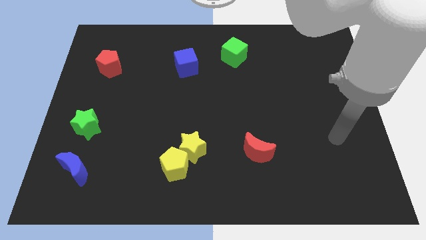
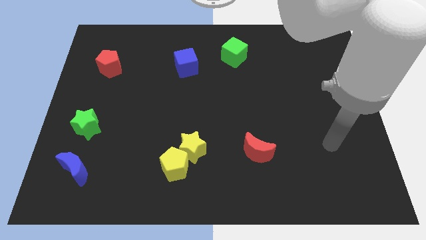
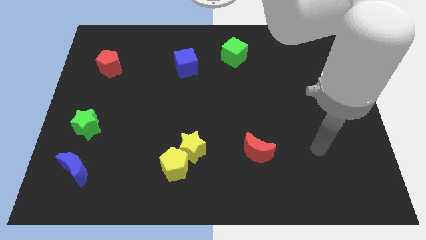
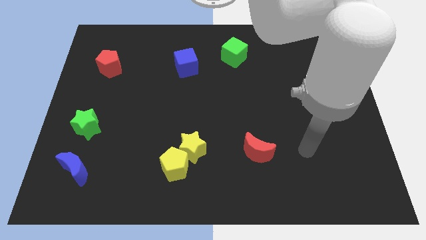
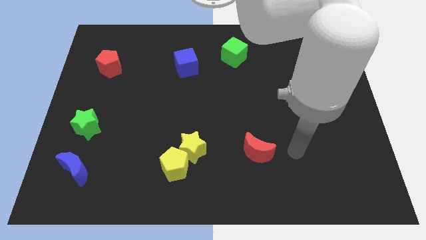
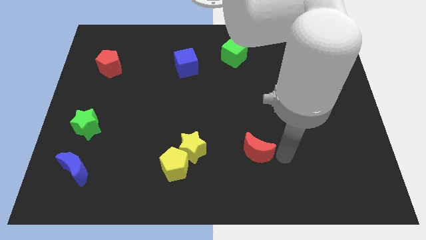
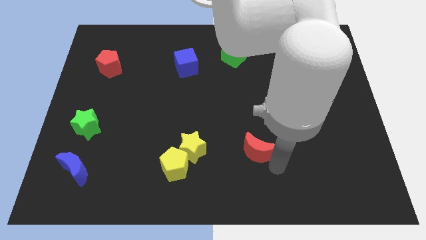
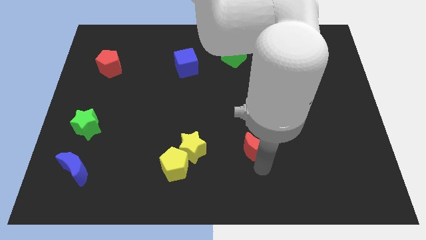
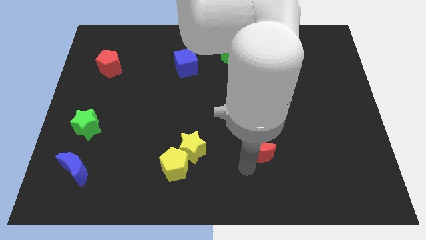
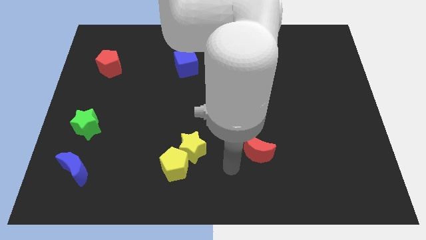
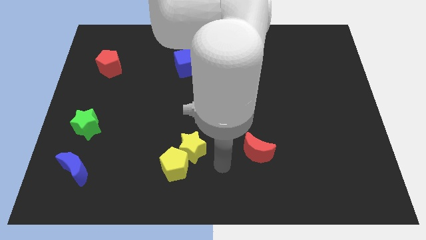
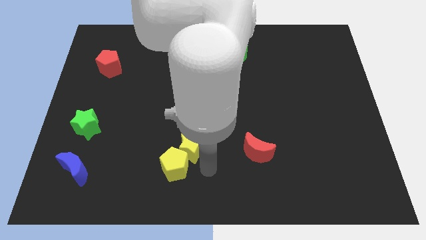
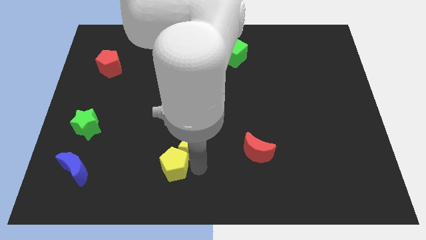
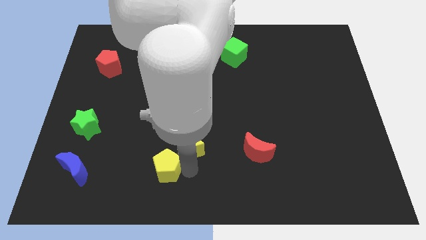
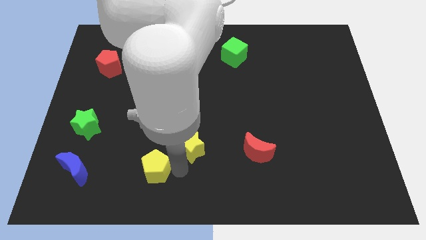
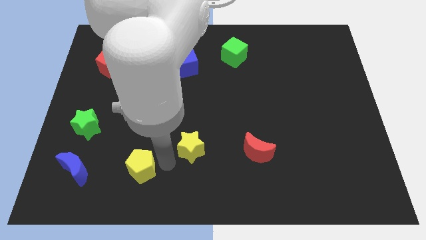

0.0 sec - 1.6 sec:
pull the yellow star apart from the yellow pentagon

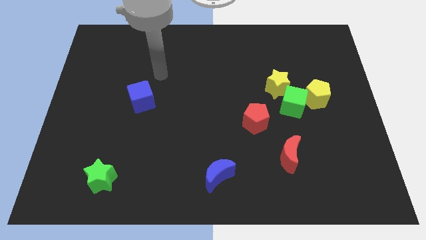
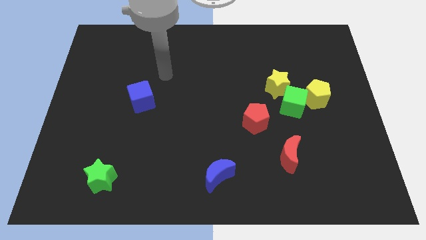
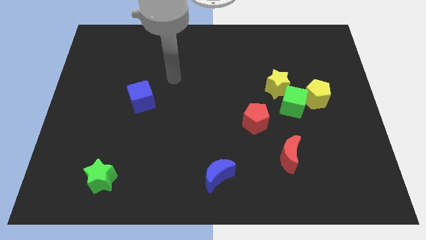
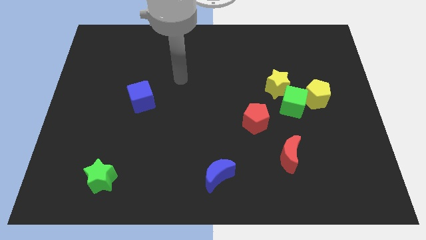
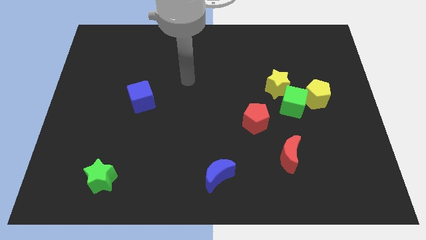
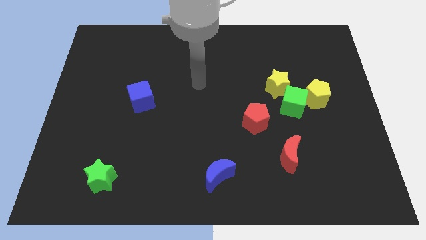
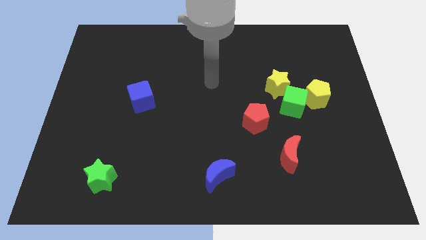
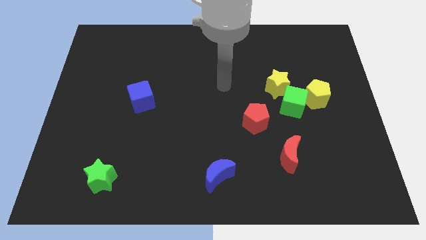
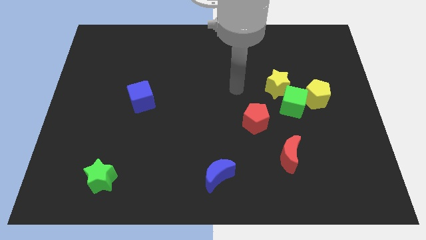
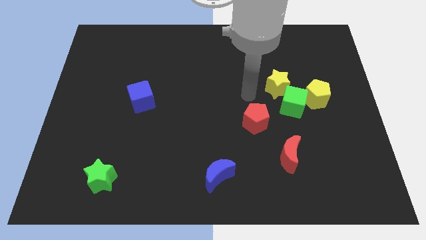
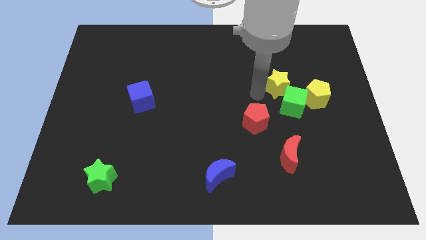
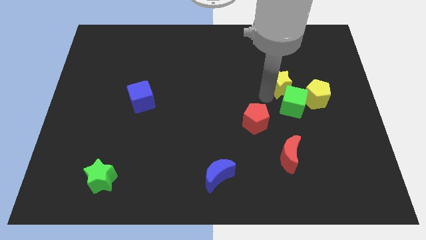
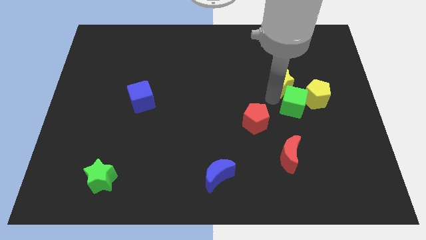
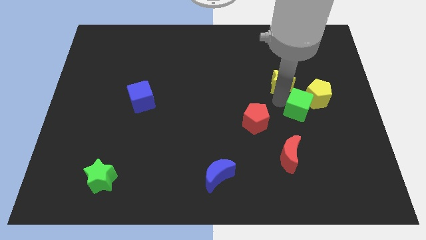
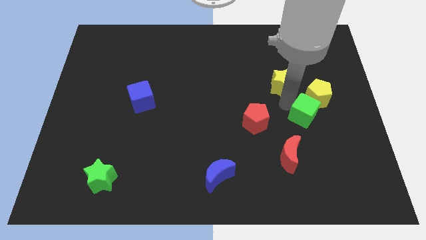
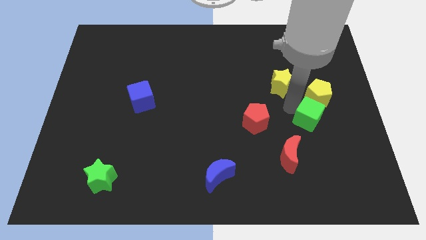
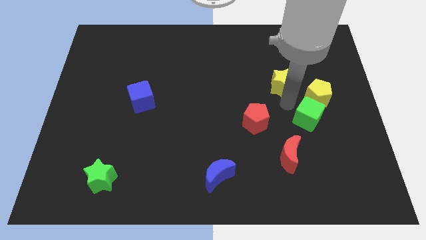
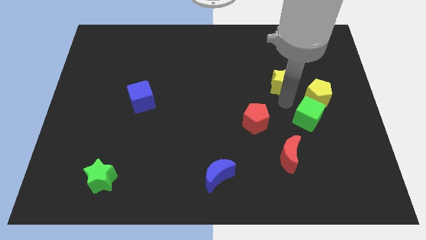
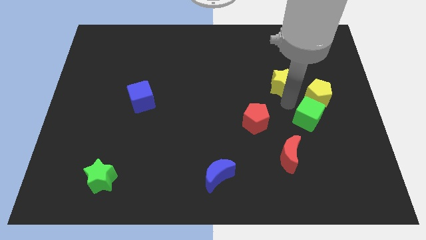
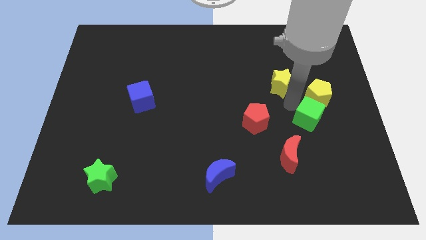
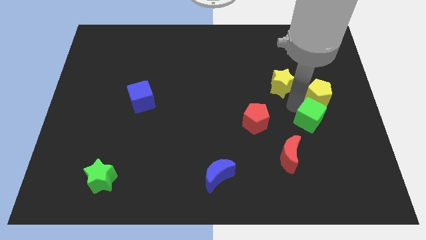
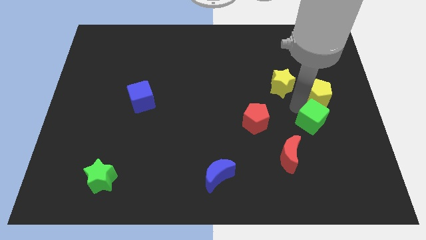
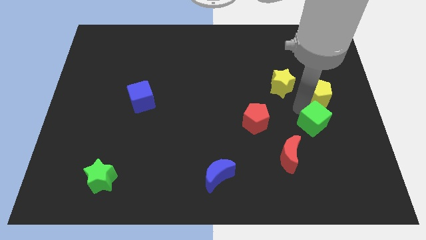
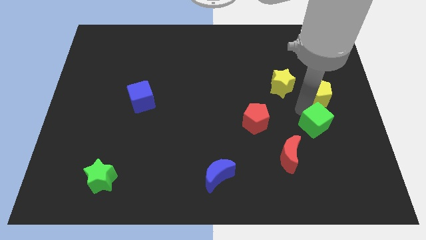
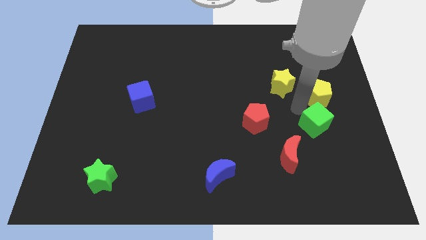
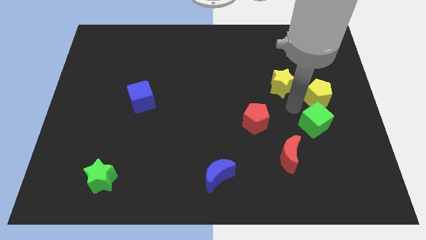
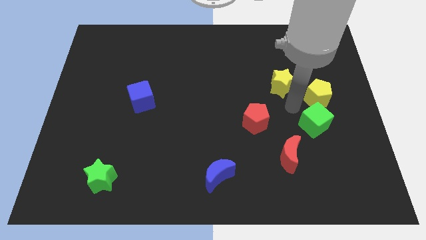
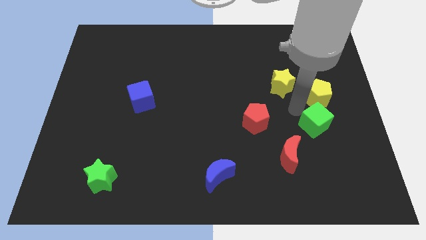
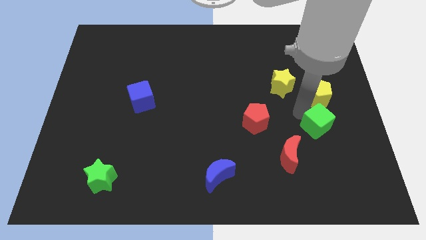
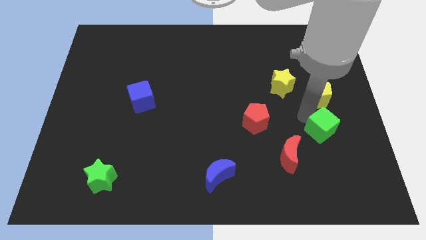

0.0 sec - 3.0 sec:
separate the green cube from the yellow pentagon, yellow star, and red pentagon

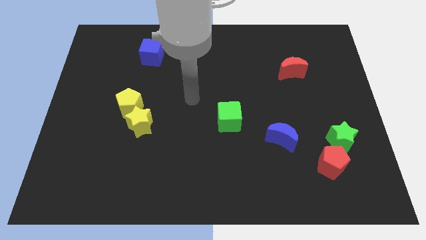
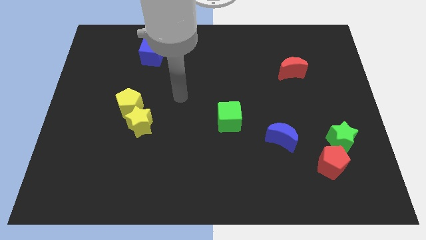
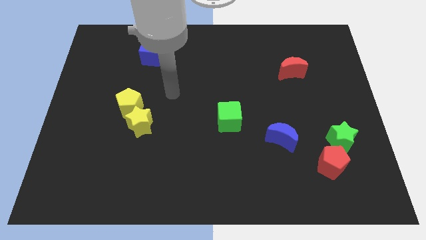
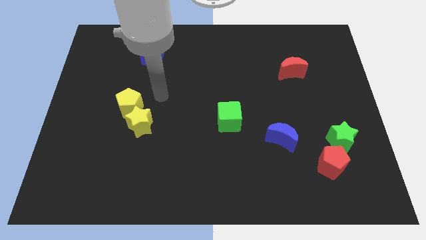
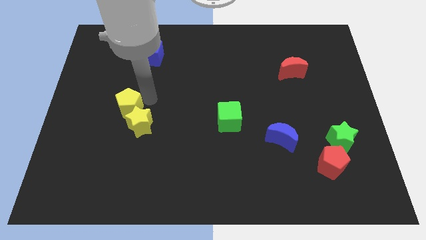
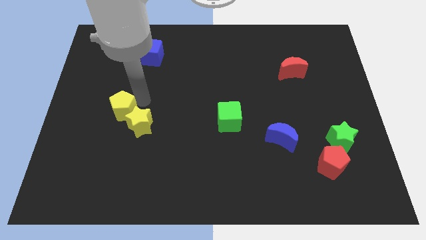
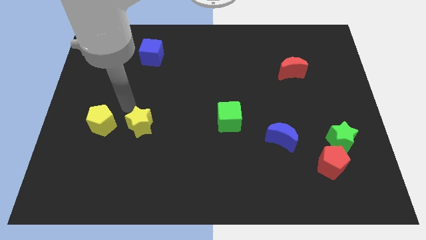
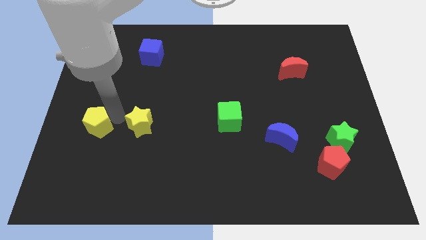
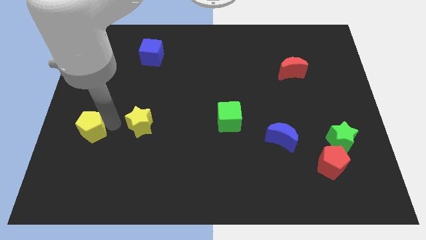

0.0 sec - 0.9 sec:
separate the yellow star from the yellow pentagon

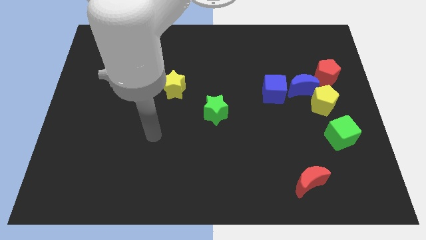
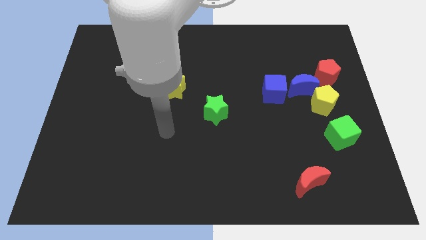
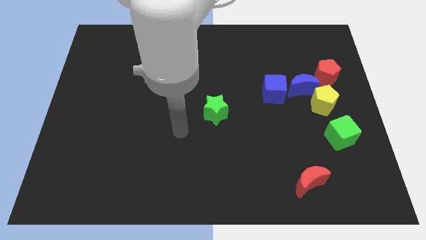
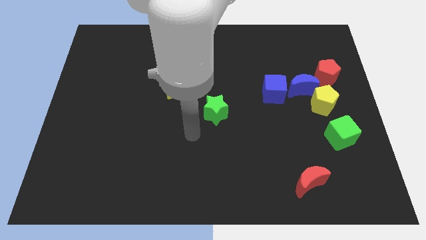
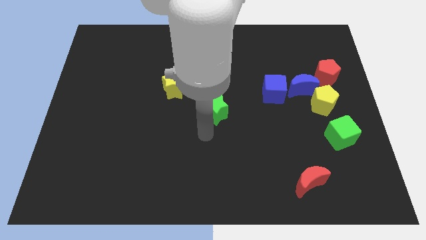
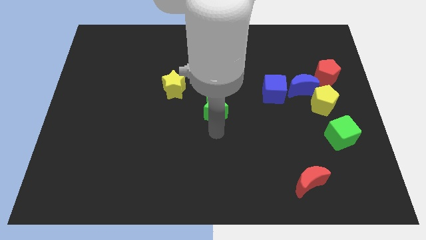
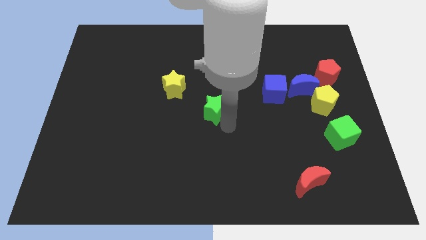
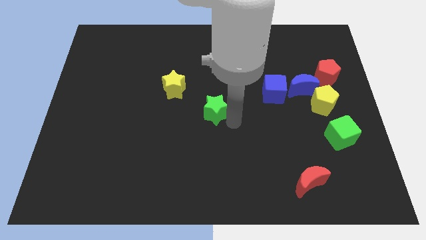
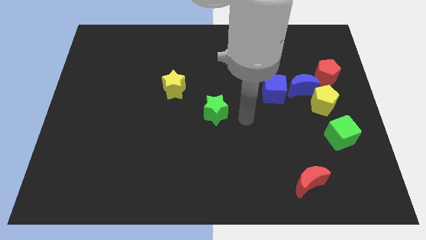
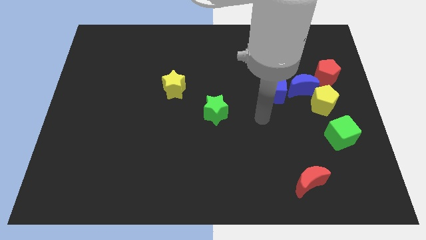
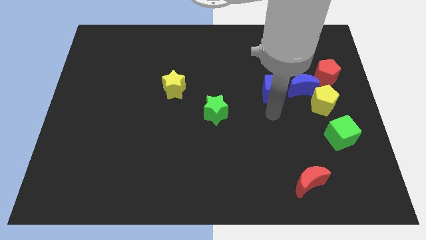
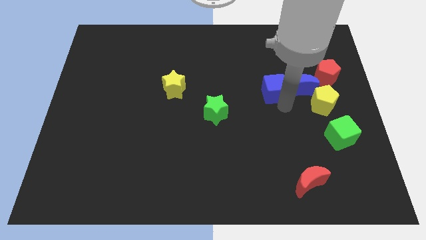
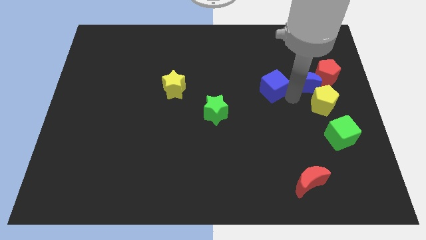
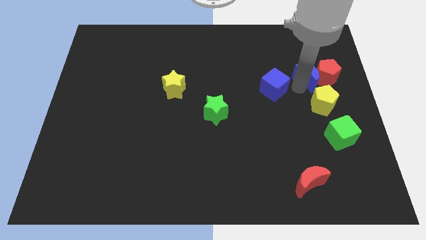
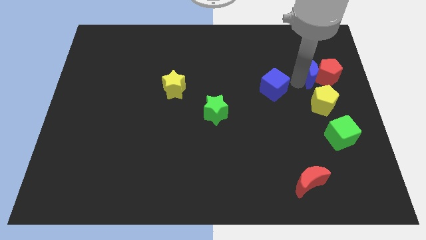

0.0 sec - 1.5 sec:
pull the blue cube apart from the blue moon

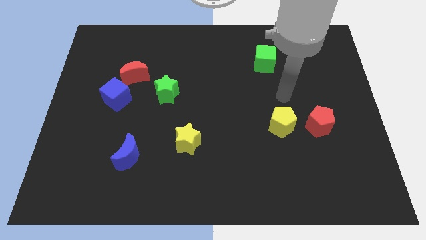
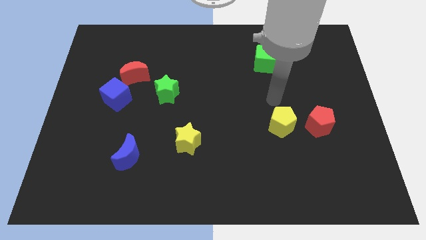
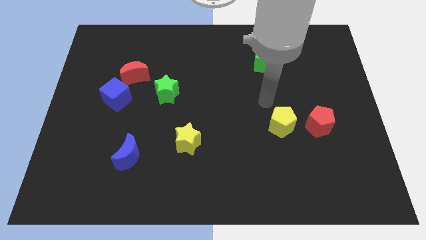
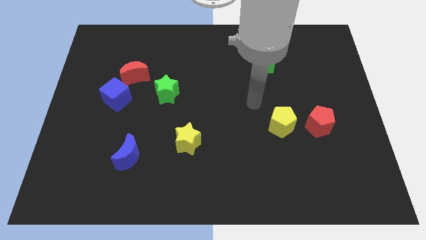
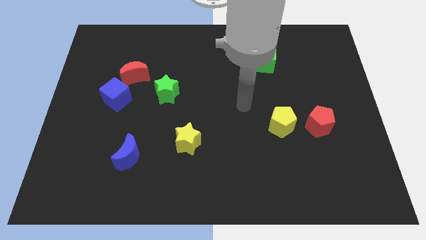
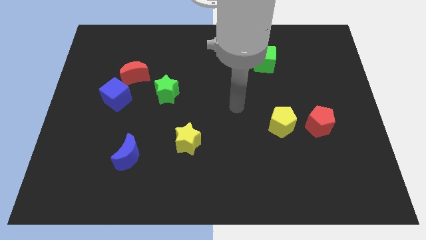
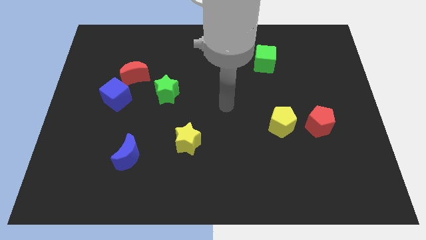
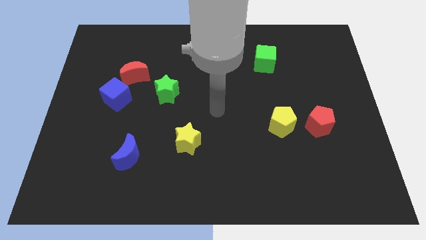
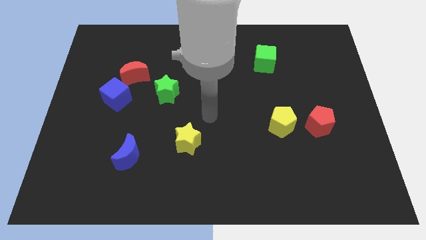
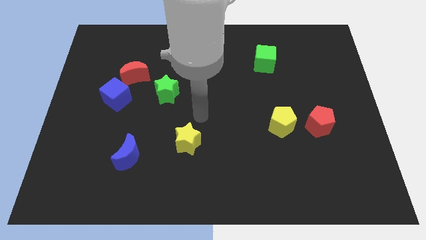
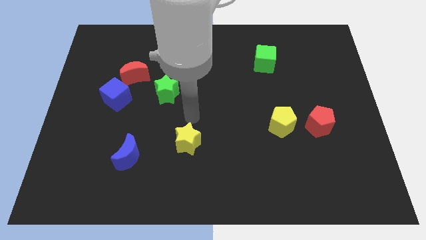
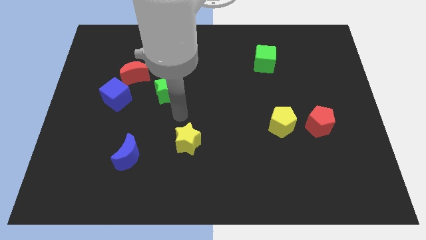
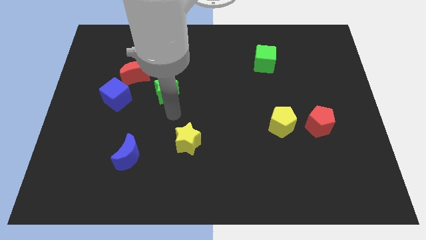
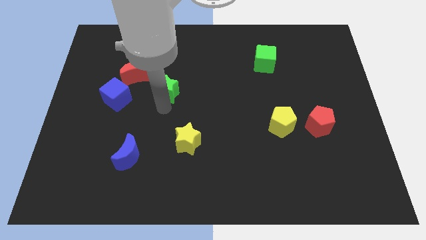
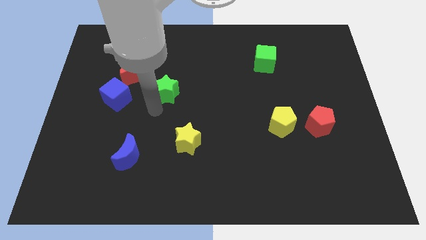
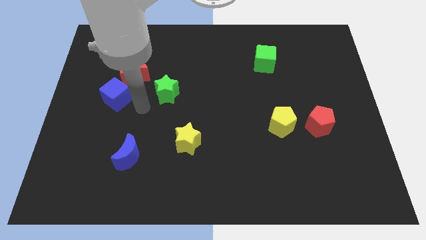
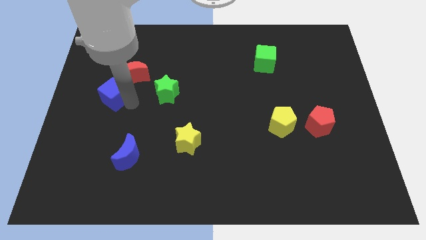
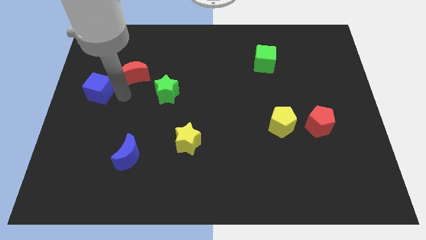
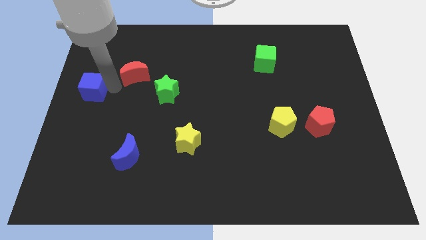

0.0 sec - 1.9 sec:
separate the red moon from the blue cube

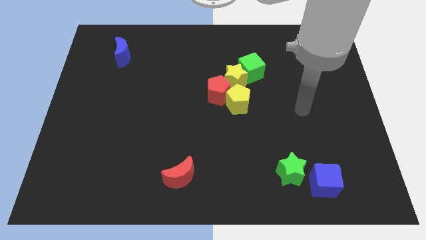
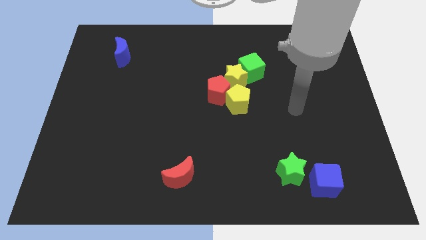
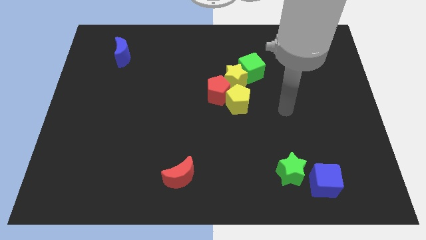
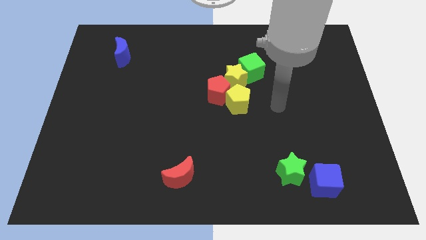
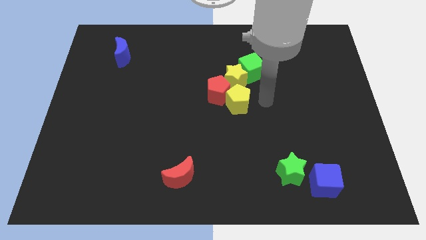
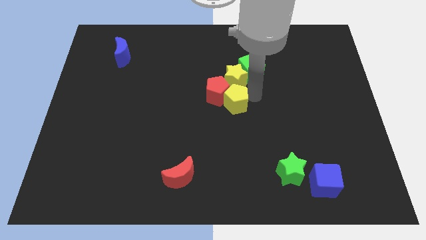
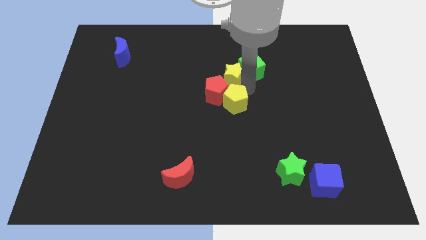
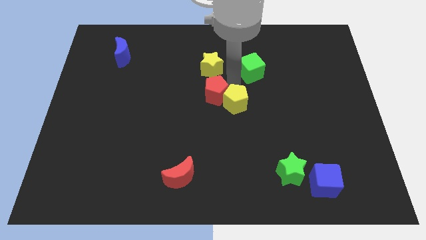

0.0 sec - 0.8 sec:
move the green cube away from the yellow star
